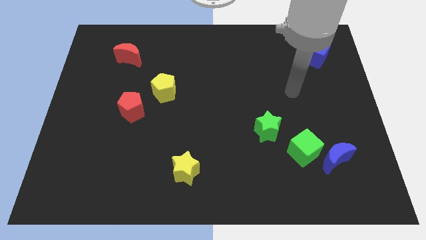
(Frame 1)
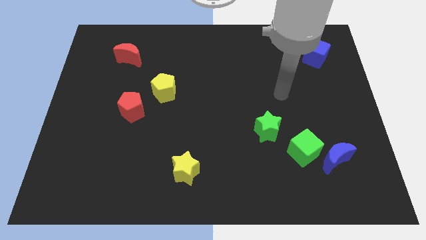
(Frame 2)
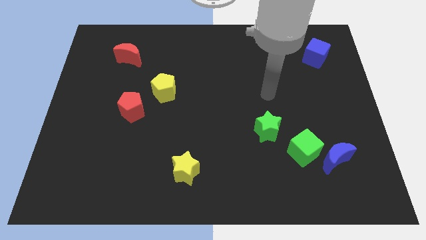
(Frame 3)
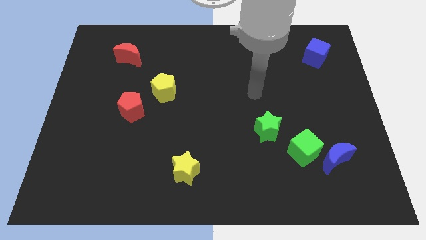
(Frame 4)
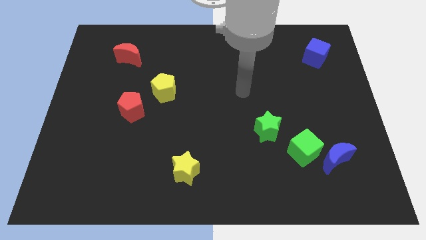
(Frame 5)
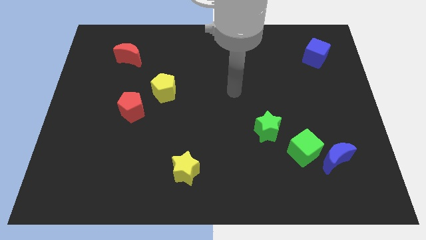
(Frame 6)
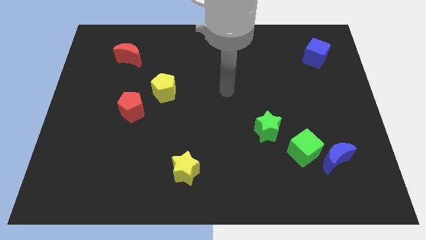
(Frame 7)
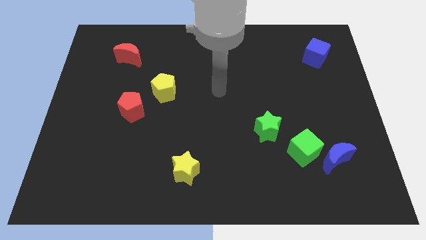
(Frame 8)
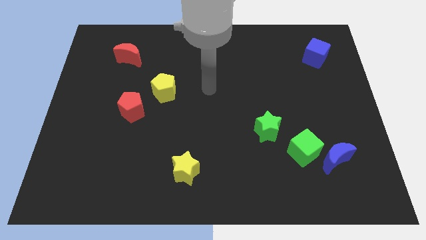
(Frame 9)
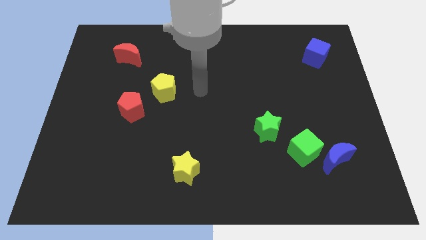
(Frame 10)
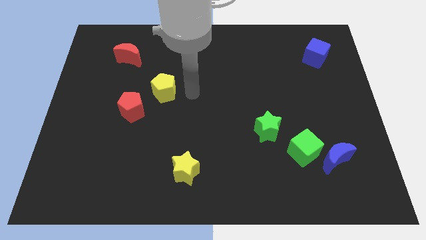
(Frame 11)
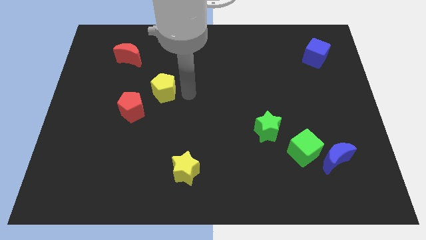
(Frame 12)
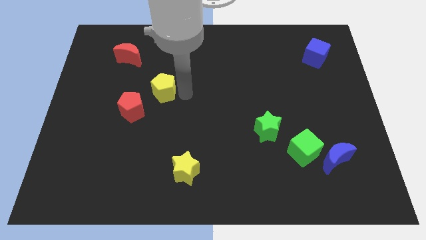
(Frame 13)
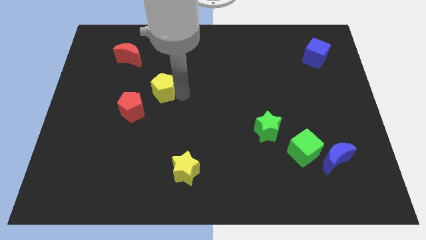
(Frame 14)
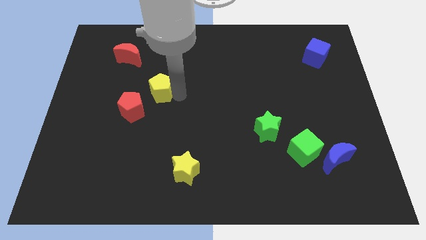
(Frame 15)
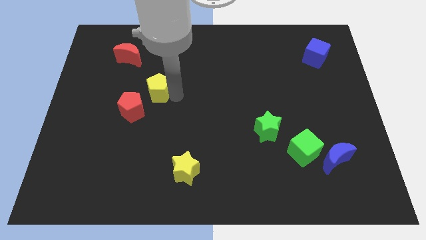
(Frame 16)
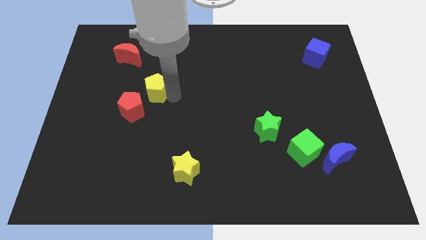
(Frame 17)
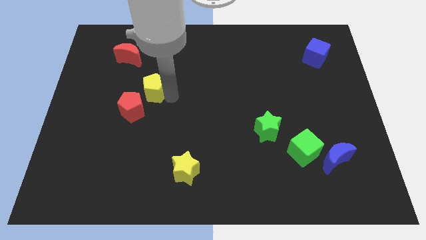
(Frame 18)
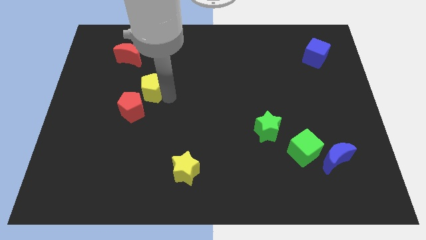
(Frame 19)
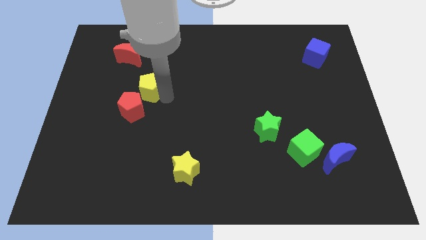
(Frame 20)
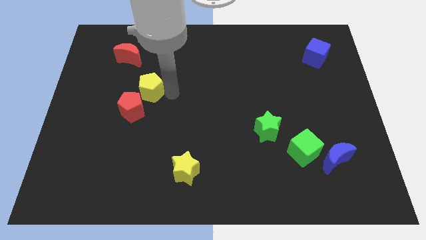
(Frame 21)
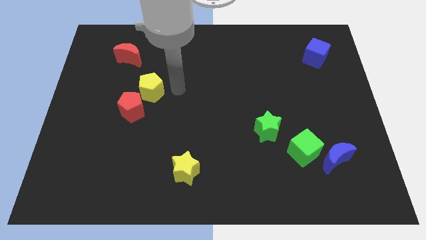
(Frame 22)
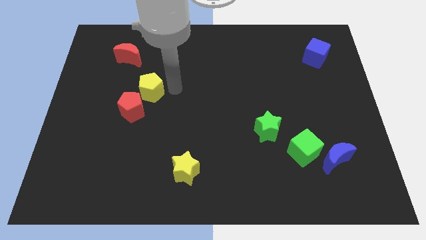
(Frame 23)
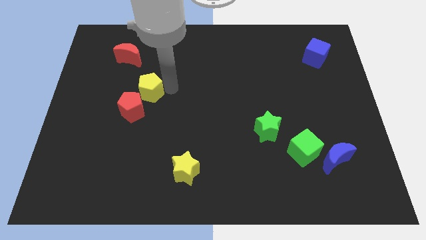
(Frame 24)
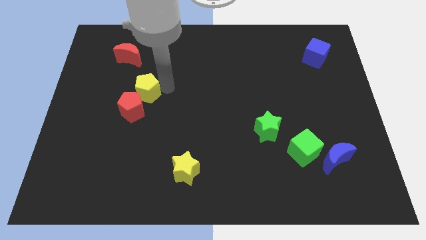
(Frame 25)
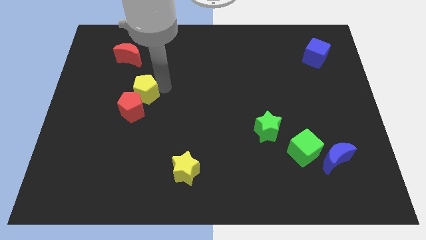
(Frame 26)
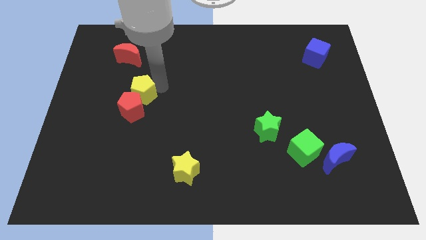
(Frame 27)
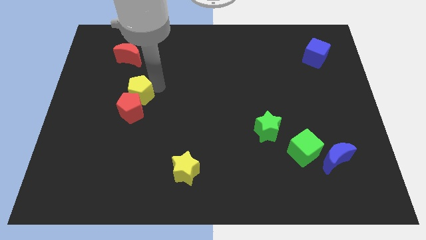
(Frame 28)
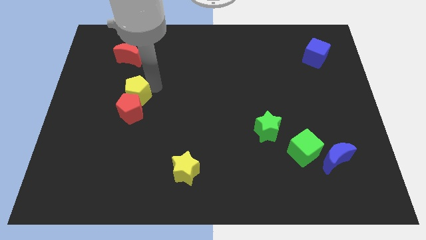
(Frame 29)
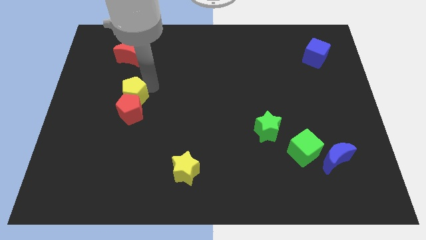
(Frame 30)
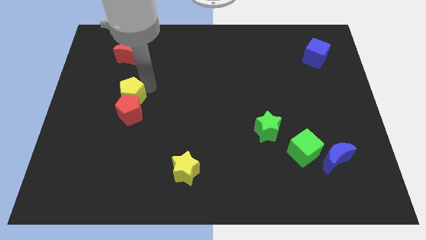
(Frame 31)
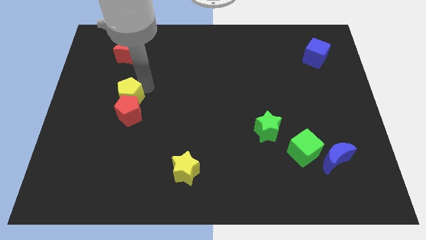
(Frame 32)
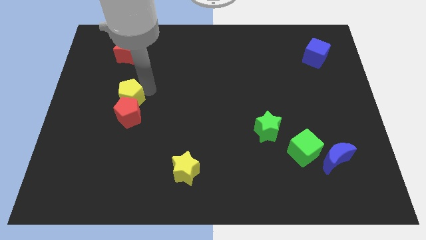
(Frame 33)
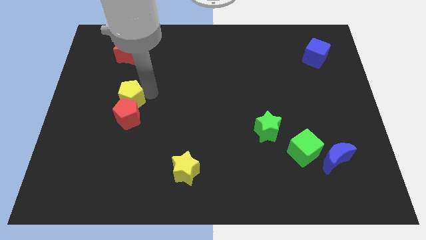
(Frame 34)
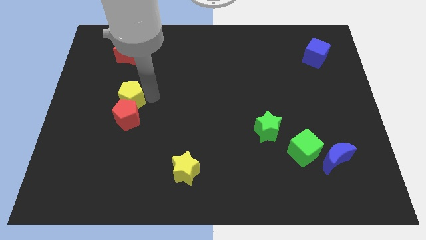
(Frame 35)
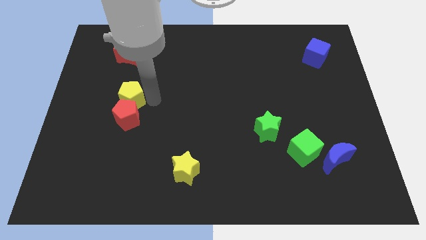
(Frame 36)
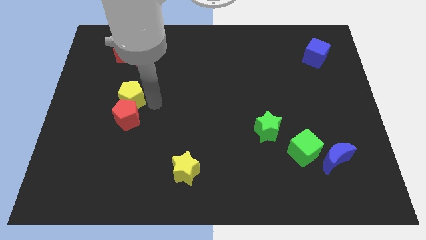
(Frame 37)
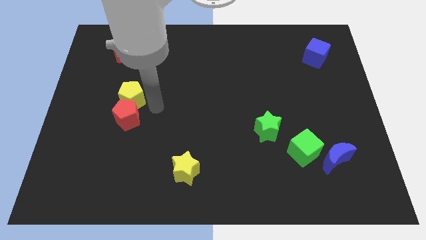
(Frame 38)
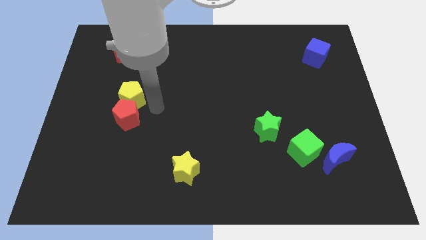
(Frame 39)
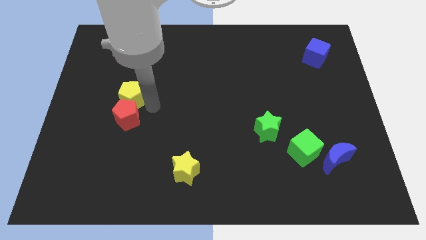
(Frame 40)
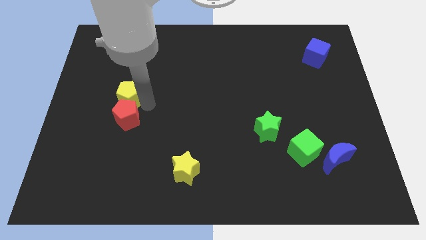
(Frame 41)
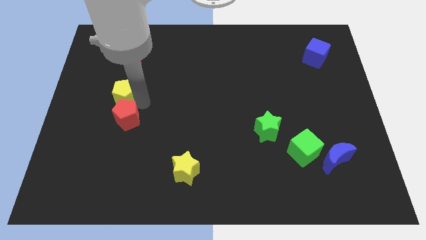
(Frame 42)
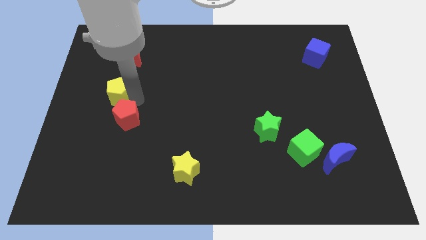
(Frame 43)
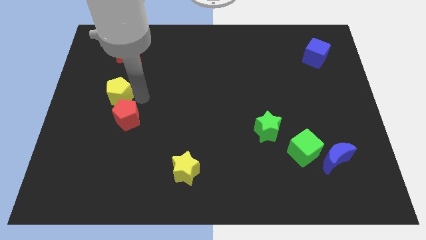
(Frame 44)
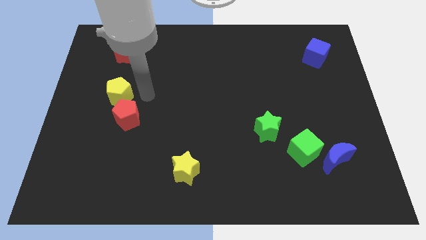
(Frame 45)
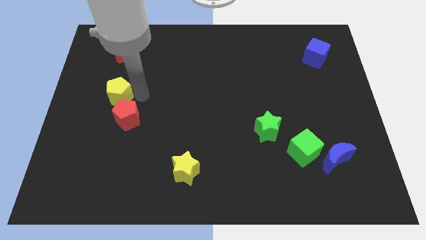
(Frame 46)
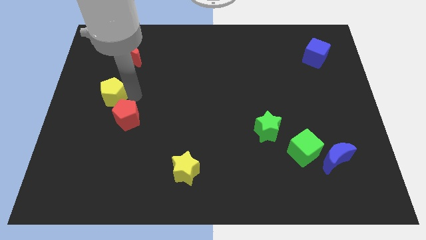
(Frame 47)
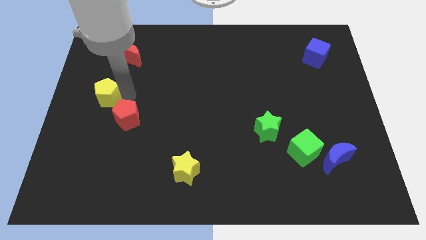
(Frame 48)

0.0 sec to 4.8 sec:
slide the yellow pentagon to the center left

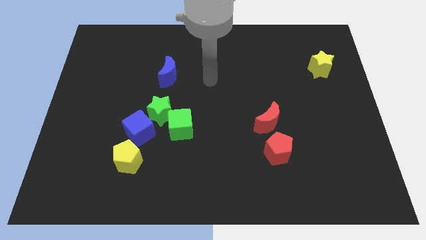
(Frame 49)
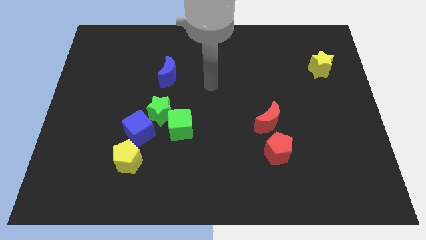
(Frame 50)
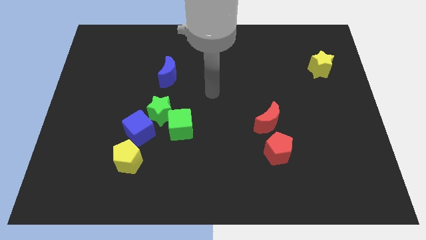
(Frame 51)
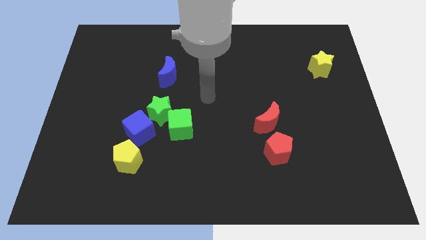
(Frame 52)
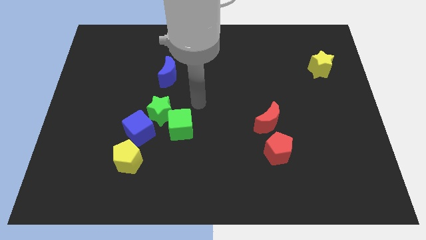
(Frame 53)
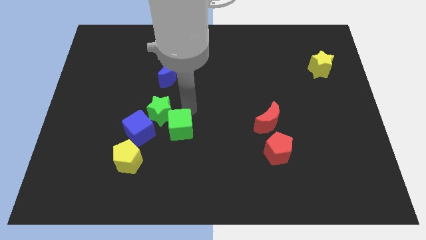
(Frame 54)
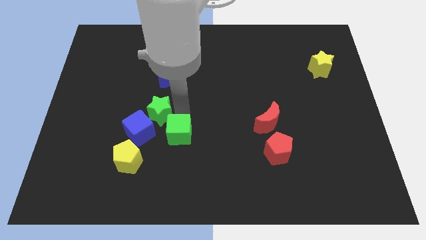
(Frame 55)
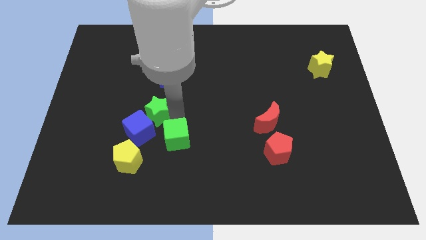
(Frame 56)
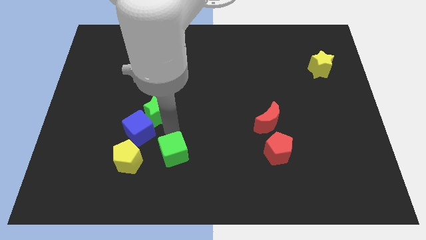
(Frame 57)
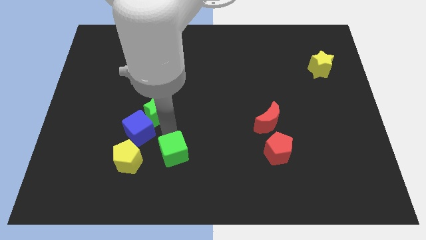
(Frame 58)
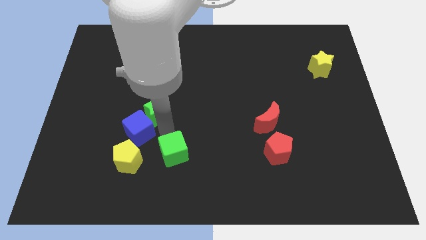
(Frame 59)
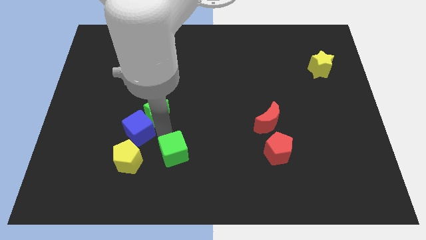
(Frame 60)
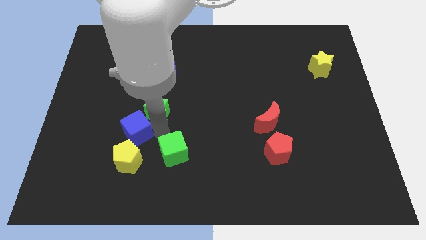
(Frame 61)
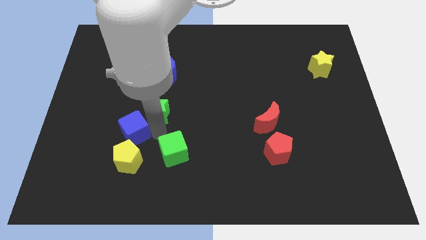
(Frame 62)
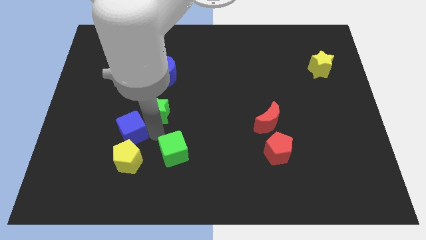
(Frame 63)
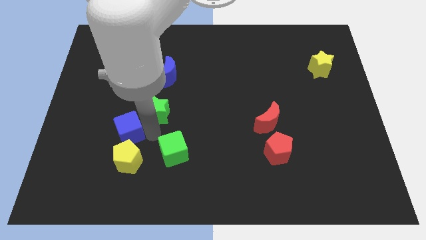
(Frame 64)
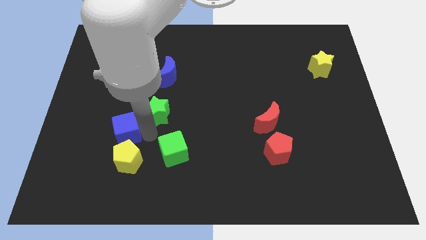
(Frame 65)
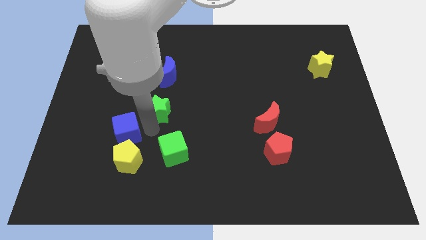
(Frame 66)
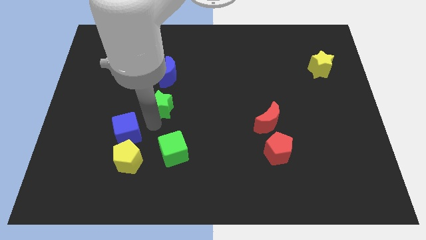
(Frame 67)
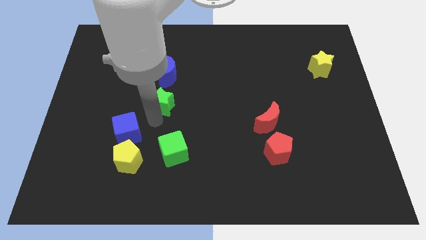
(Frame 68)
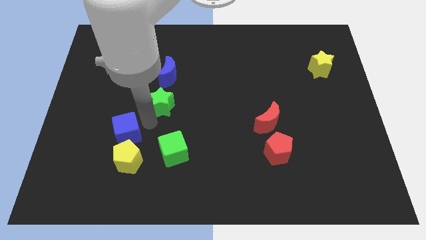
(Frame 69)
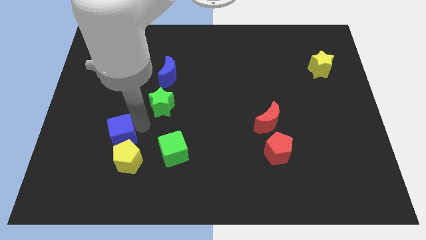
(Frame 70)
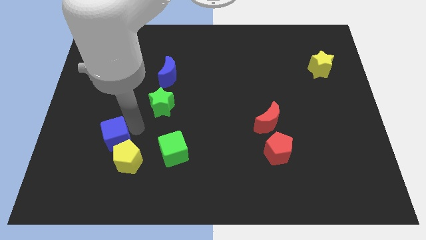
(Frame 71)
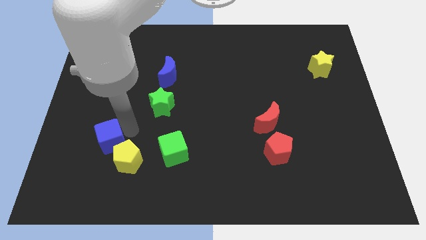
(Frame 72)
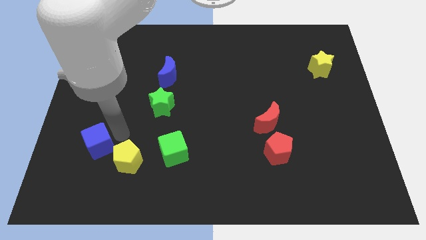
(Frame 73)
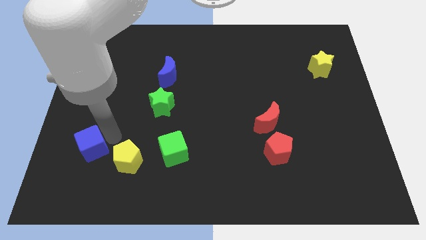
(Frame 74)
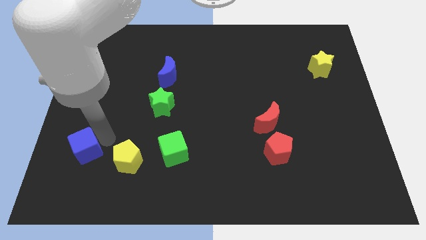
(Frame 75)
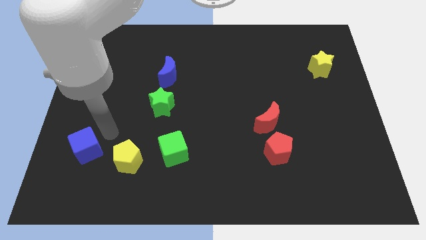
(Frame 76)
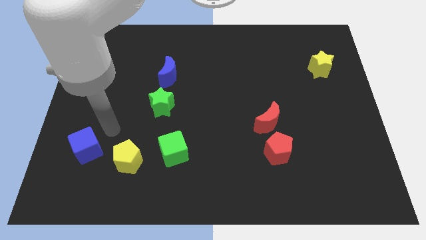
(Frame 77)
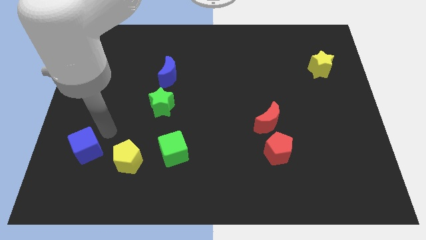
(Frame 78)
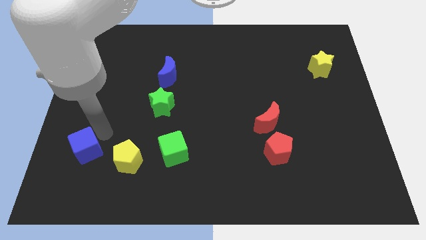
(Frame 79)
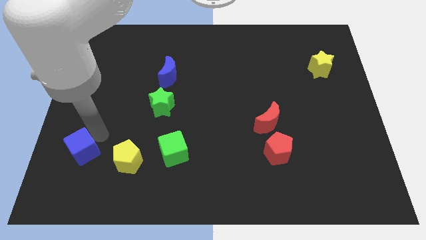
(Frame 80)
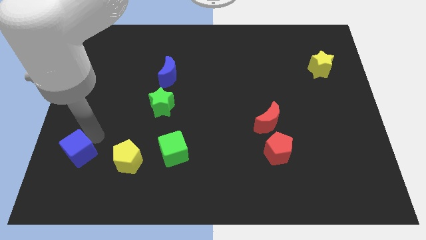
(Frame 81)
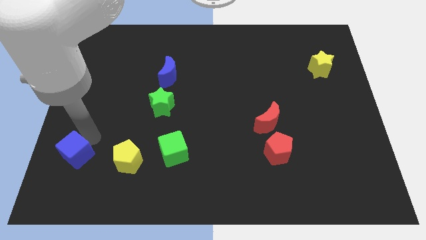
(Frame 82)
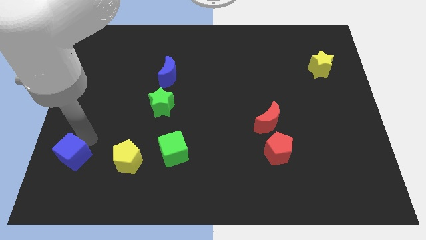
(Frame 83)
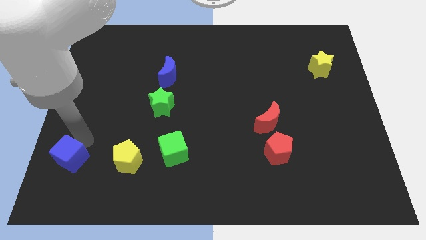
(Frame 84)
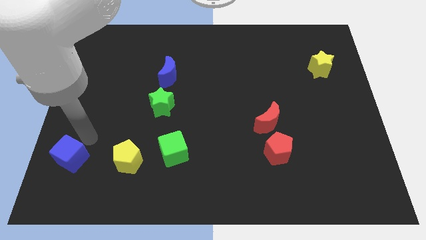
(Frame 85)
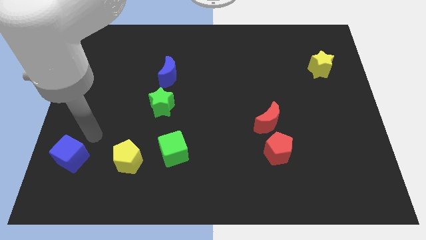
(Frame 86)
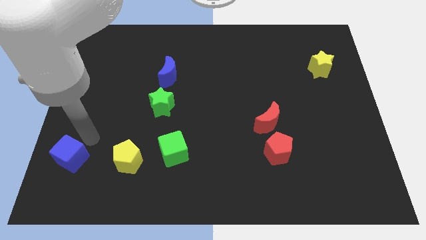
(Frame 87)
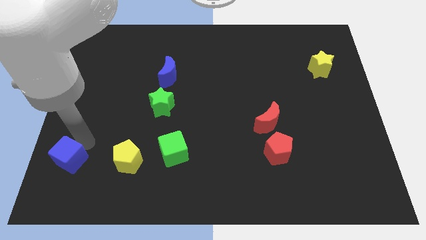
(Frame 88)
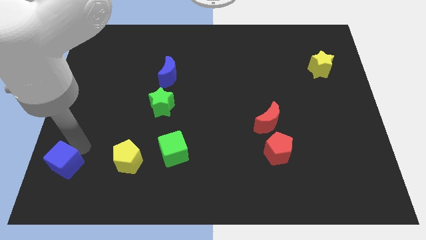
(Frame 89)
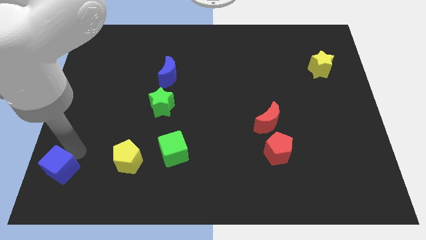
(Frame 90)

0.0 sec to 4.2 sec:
move the blue cube to the bottom left of the board
